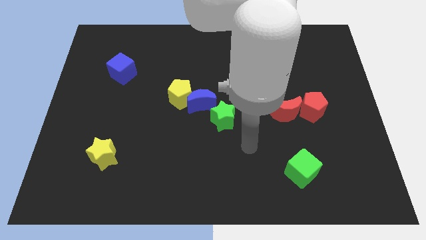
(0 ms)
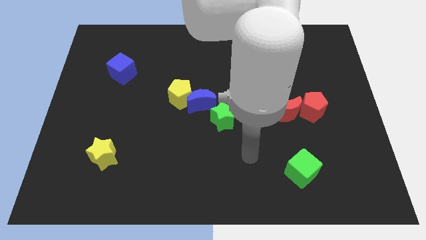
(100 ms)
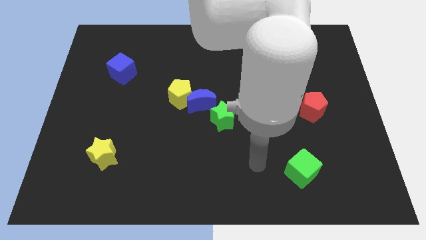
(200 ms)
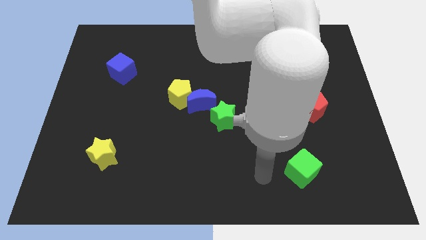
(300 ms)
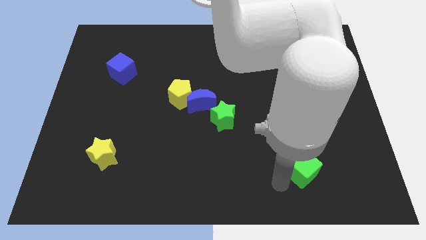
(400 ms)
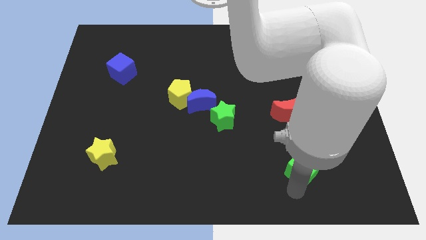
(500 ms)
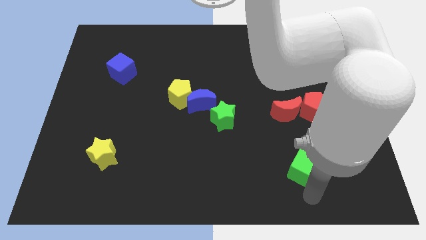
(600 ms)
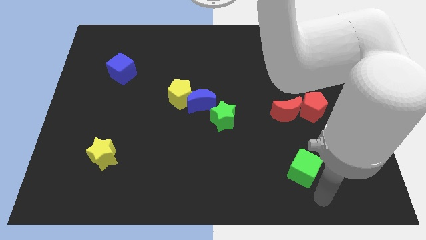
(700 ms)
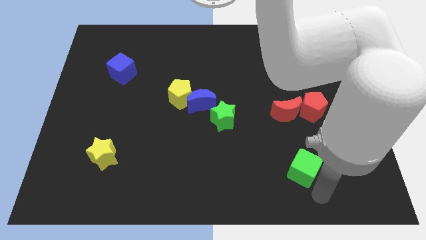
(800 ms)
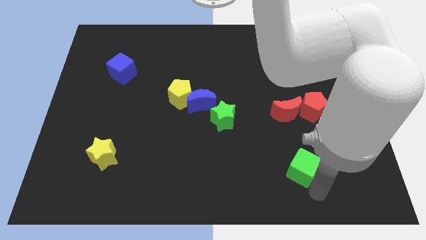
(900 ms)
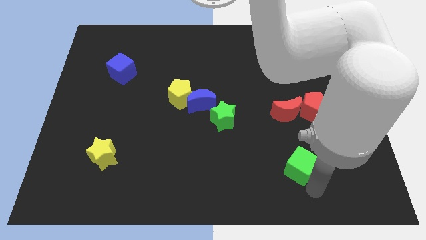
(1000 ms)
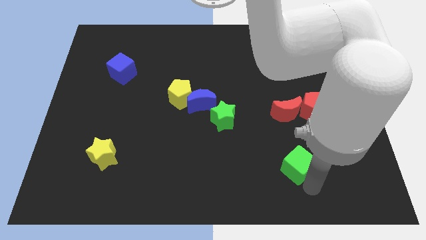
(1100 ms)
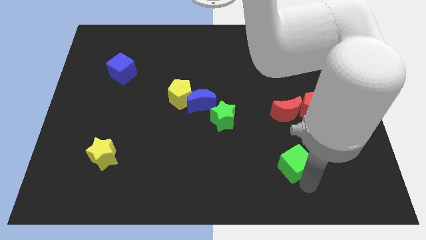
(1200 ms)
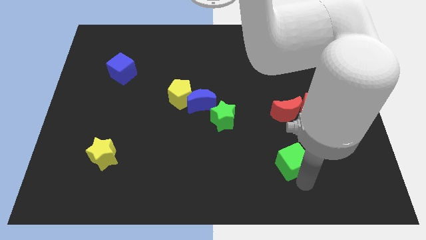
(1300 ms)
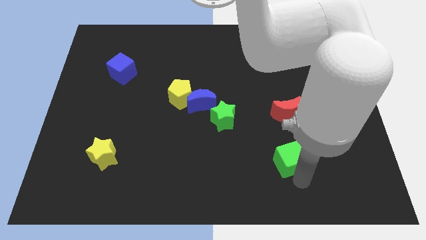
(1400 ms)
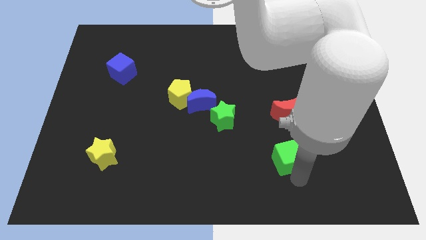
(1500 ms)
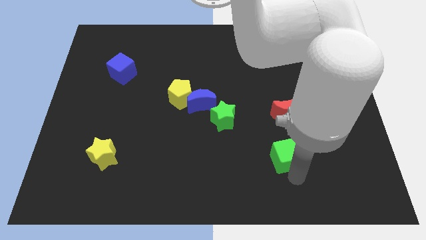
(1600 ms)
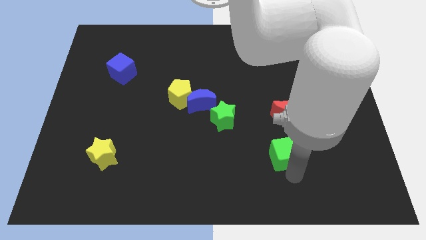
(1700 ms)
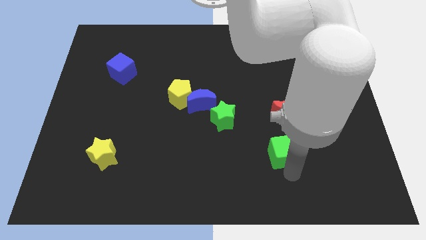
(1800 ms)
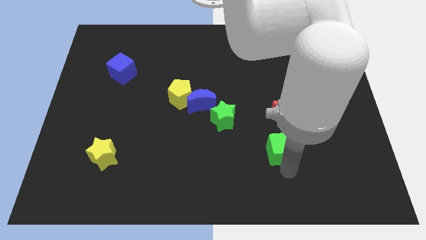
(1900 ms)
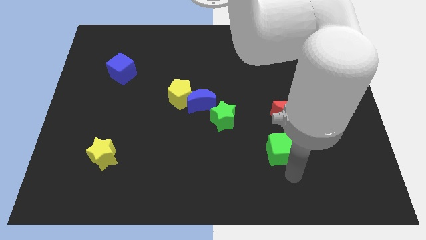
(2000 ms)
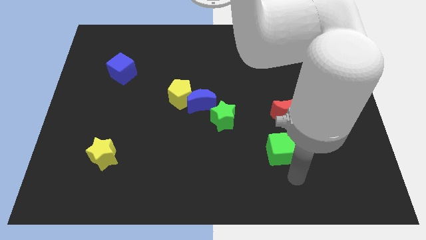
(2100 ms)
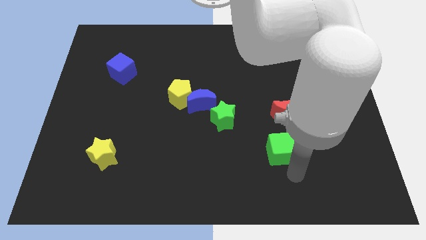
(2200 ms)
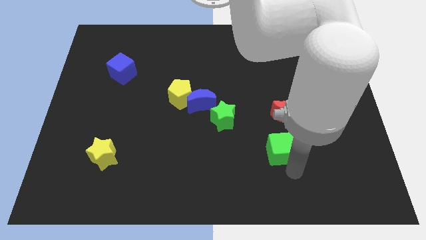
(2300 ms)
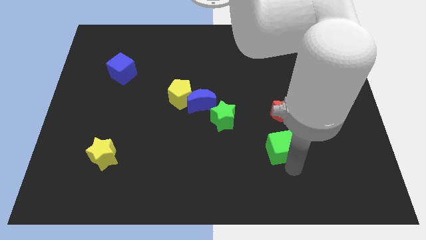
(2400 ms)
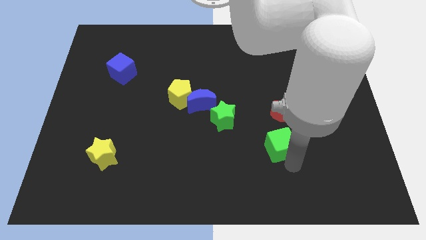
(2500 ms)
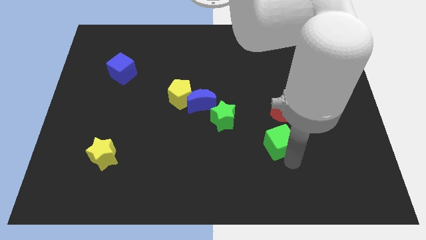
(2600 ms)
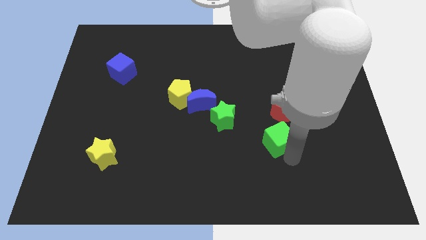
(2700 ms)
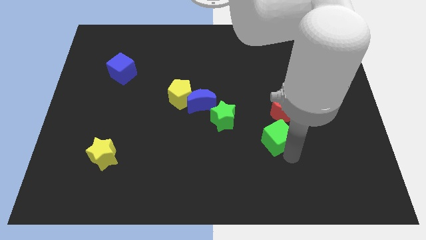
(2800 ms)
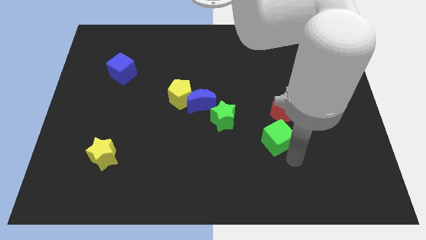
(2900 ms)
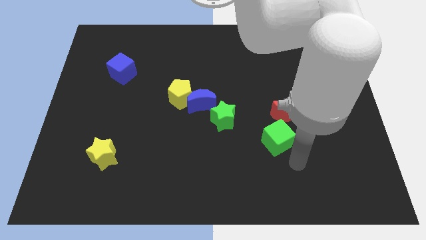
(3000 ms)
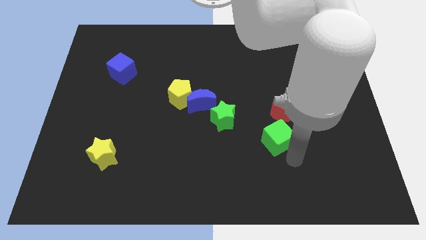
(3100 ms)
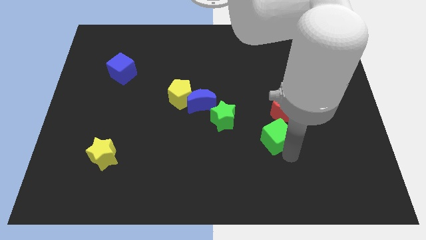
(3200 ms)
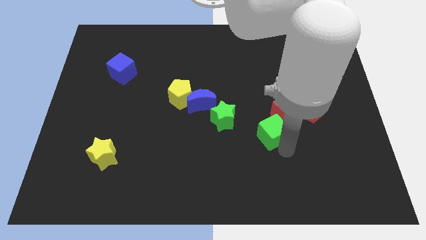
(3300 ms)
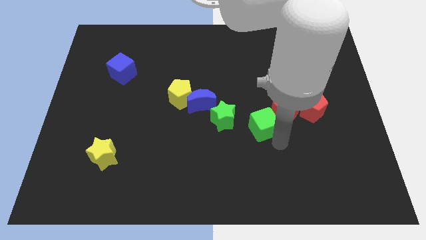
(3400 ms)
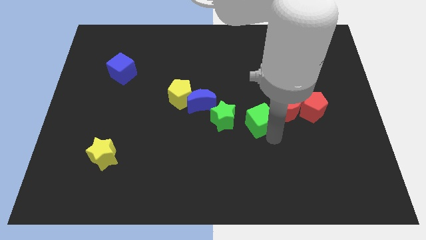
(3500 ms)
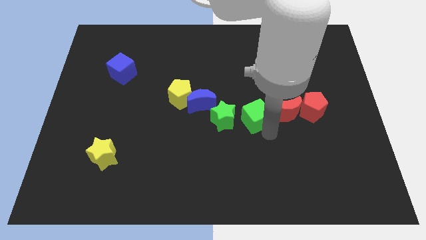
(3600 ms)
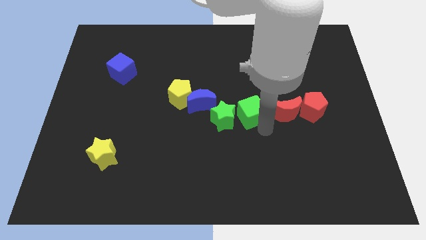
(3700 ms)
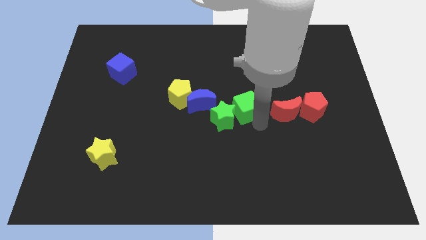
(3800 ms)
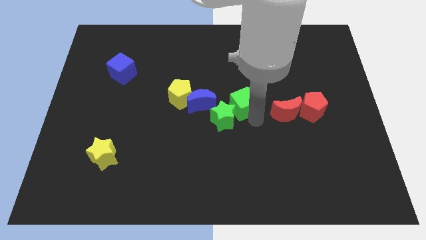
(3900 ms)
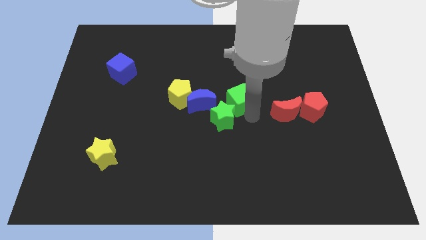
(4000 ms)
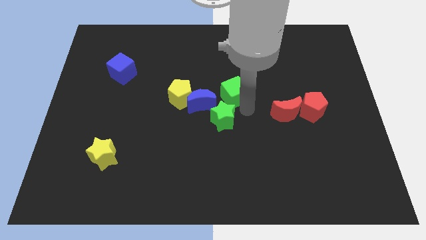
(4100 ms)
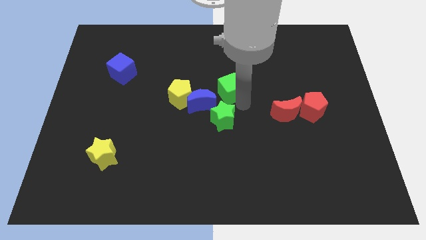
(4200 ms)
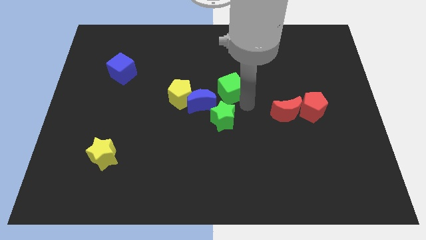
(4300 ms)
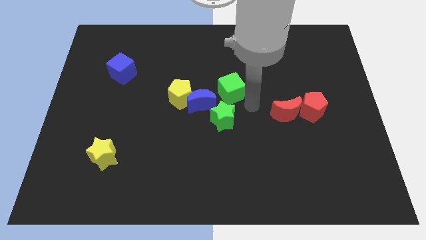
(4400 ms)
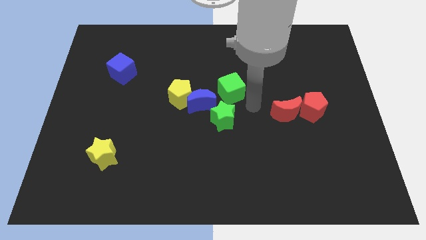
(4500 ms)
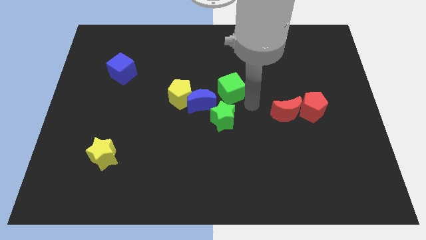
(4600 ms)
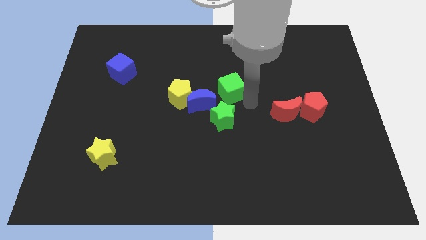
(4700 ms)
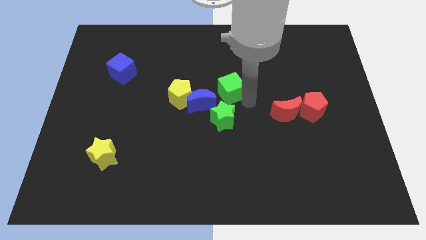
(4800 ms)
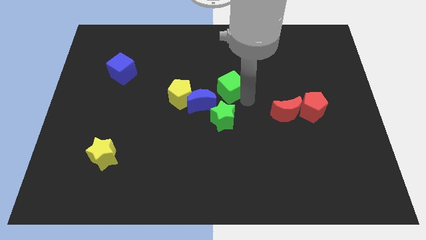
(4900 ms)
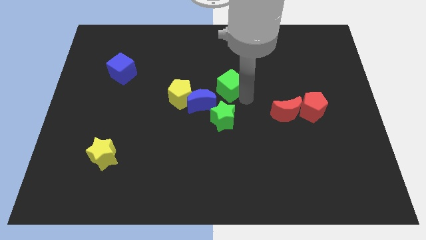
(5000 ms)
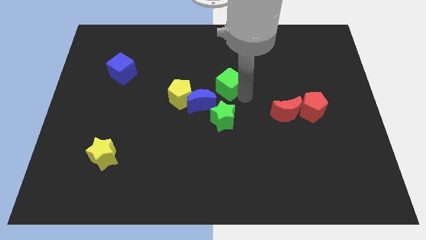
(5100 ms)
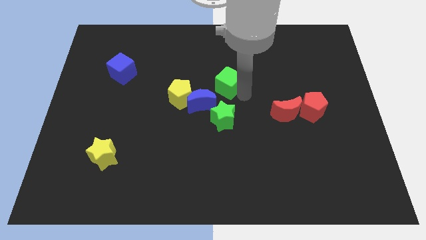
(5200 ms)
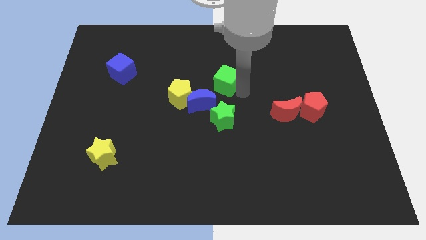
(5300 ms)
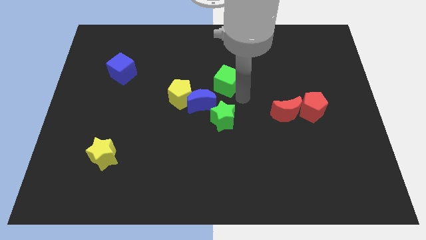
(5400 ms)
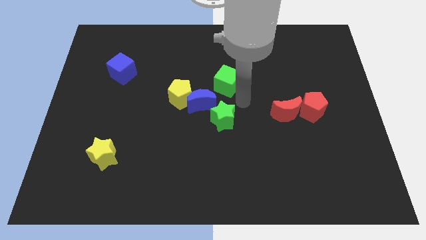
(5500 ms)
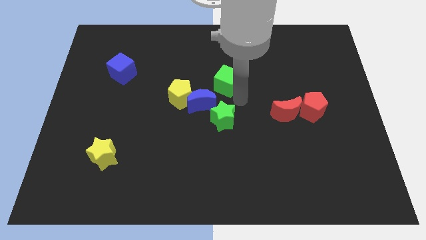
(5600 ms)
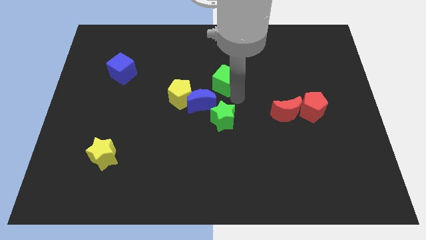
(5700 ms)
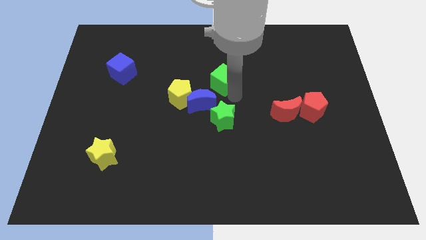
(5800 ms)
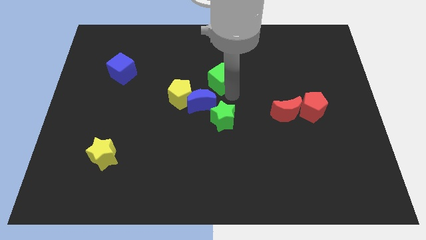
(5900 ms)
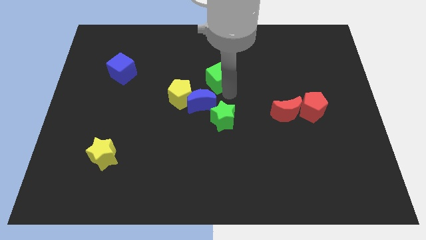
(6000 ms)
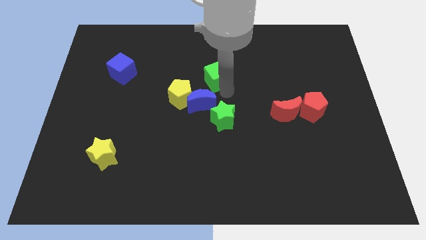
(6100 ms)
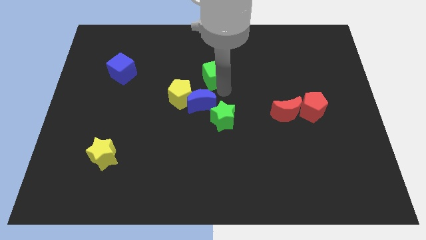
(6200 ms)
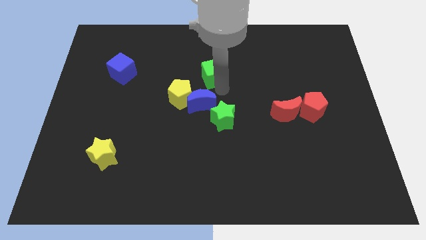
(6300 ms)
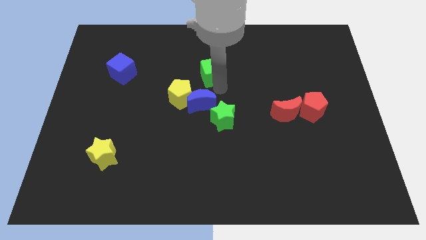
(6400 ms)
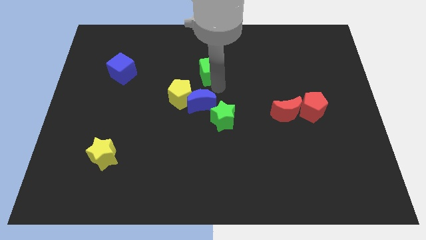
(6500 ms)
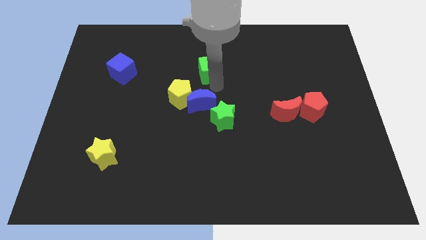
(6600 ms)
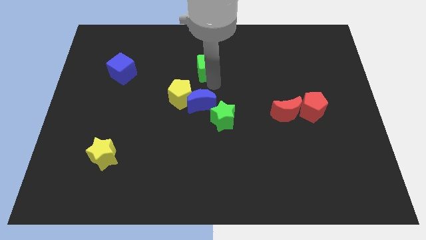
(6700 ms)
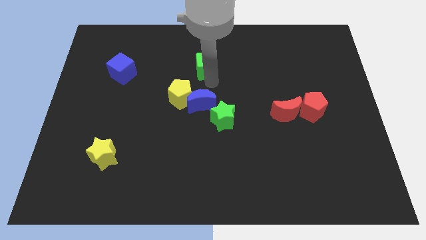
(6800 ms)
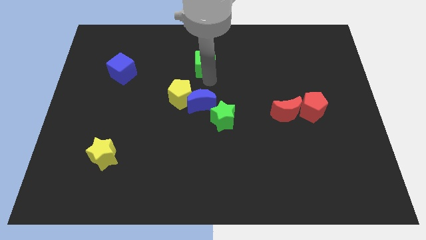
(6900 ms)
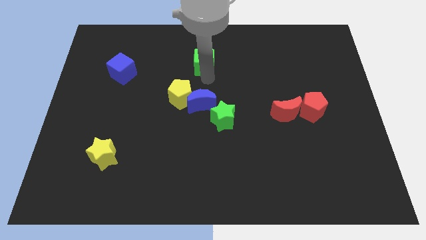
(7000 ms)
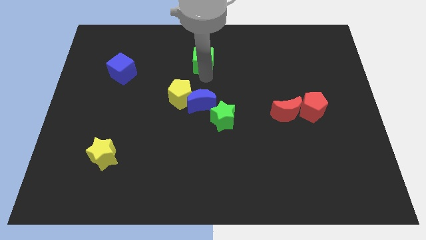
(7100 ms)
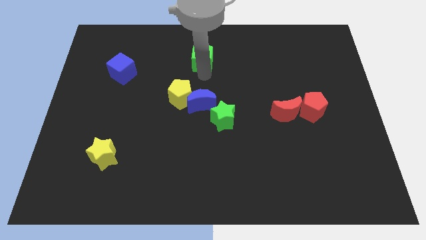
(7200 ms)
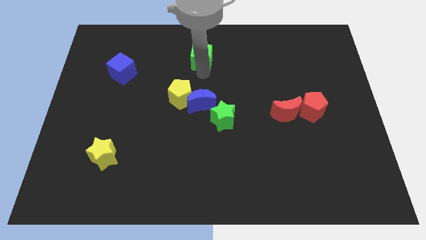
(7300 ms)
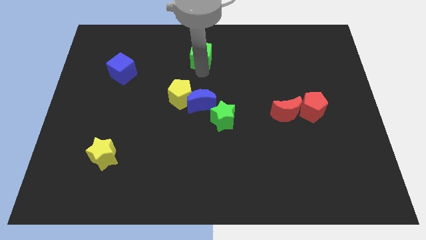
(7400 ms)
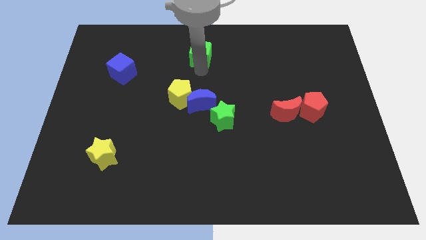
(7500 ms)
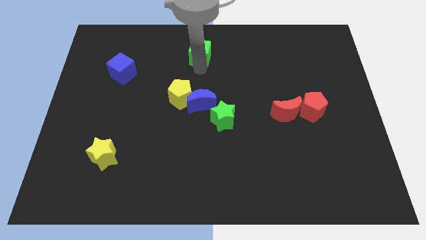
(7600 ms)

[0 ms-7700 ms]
put the green cube to the top
